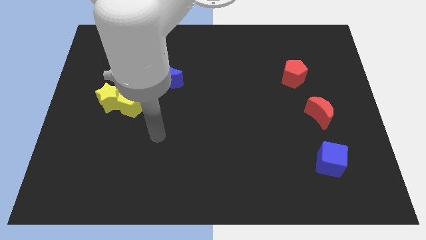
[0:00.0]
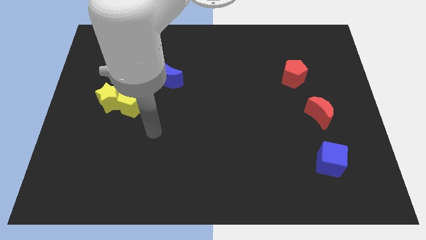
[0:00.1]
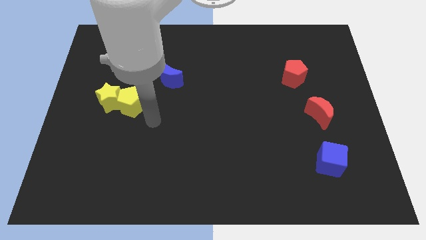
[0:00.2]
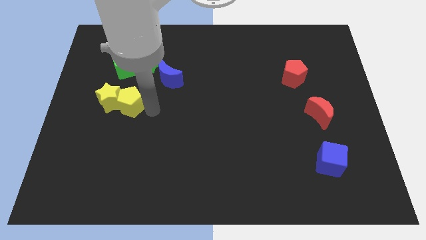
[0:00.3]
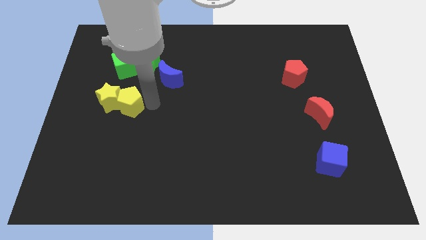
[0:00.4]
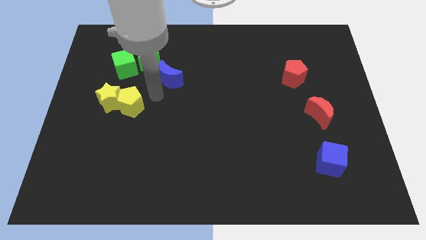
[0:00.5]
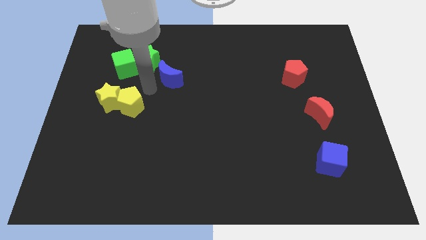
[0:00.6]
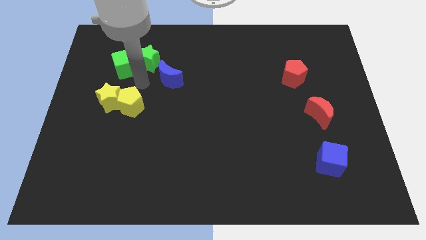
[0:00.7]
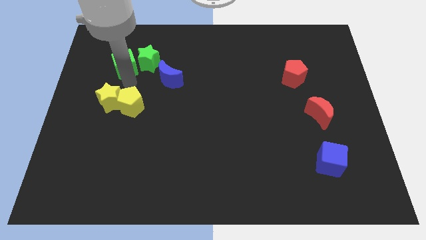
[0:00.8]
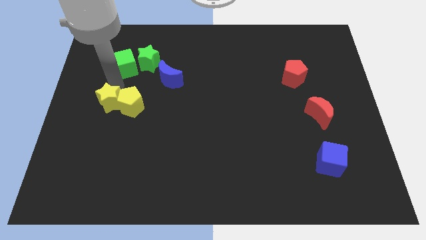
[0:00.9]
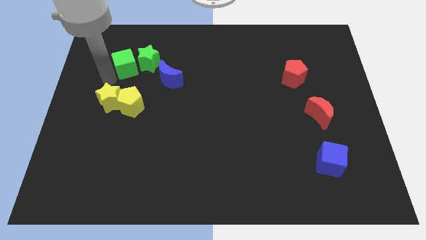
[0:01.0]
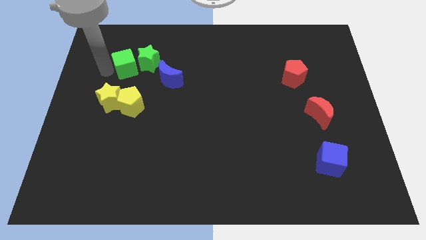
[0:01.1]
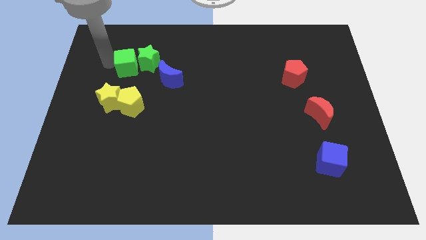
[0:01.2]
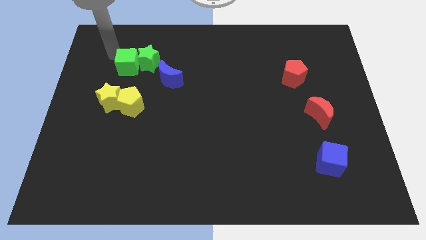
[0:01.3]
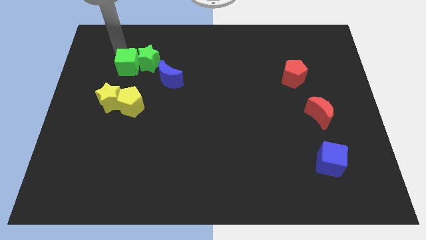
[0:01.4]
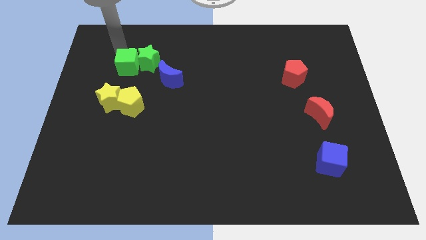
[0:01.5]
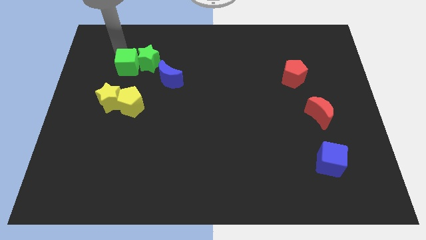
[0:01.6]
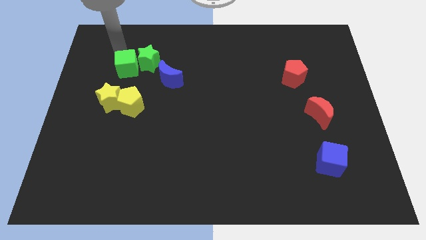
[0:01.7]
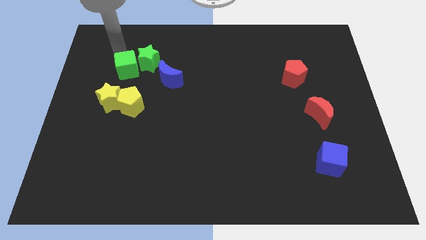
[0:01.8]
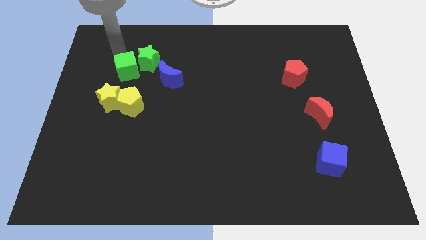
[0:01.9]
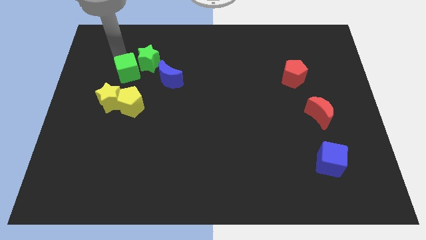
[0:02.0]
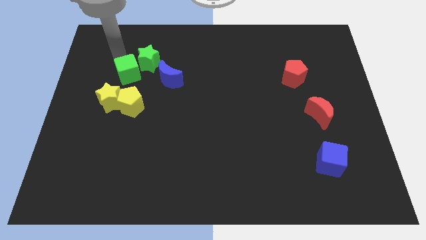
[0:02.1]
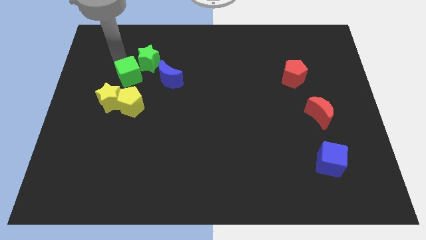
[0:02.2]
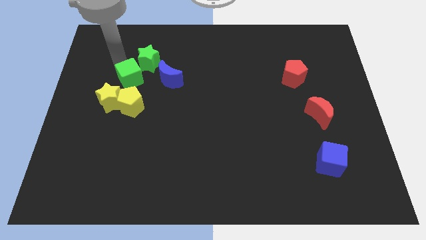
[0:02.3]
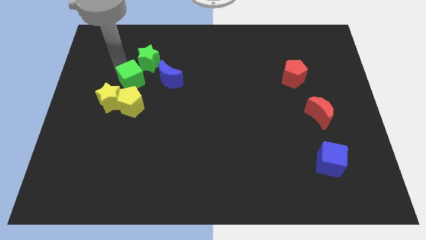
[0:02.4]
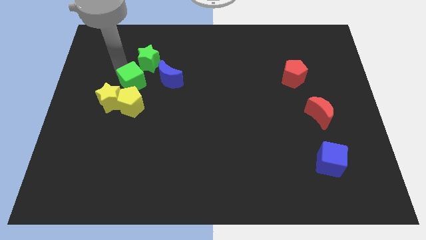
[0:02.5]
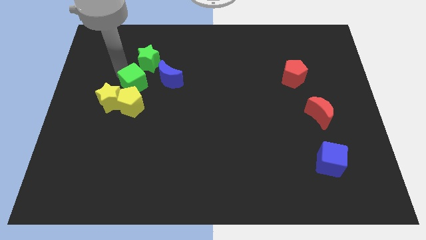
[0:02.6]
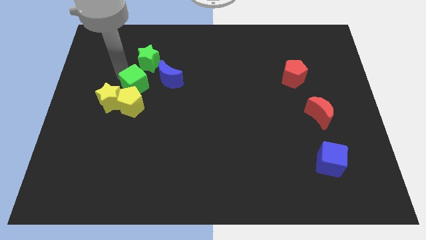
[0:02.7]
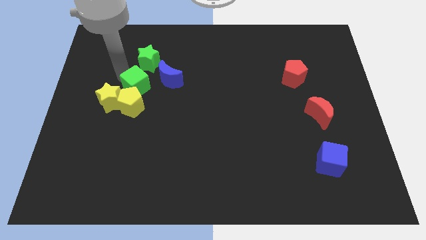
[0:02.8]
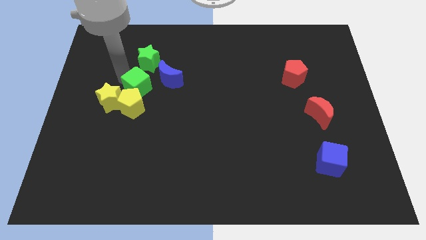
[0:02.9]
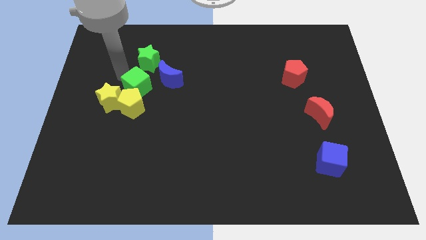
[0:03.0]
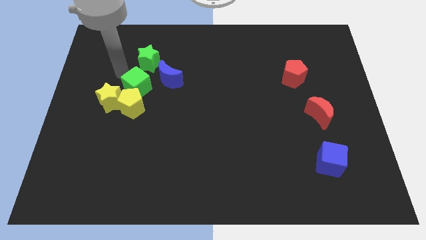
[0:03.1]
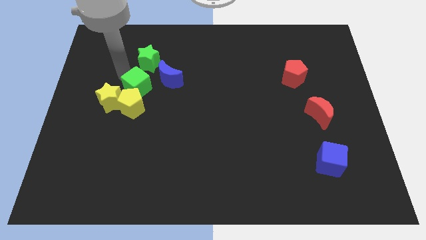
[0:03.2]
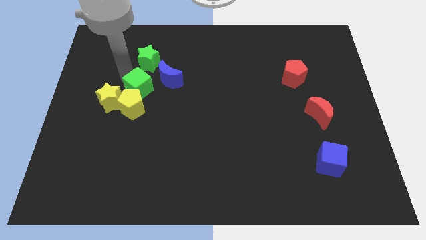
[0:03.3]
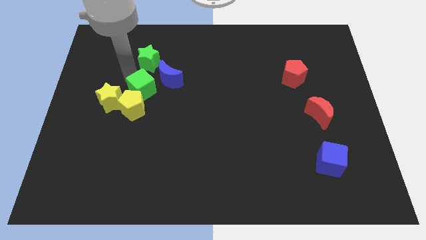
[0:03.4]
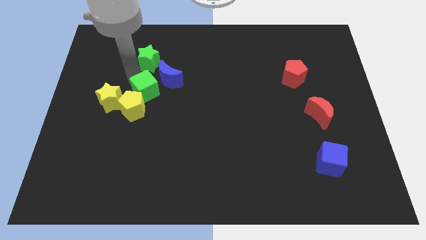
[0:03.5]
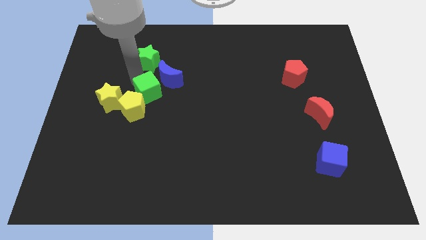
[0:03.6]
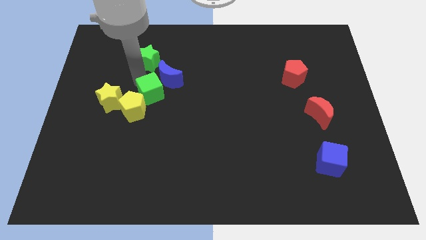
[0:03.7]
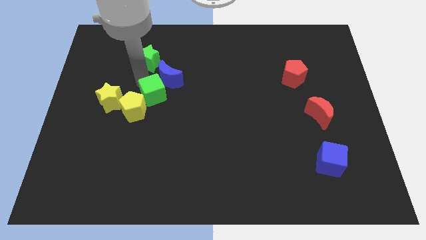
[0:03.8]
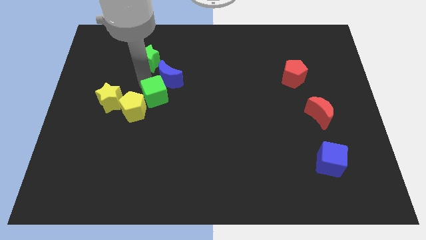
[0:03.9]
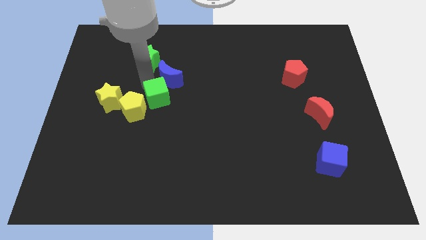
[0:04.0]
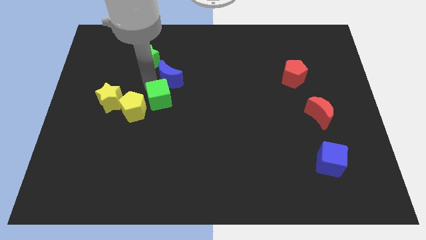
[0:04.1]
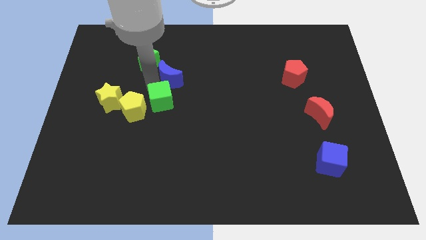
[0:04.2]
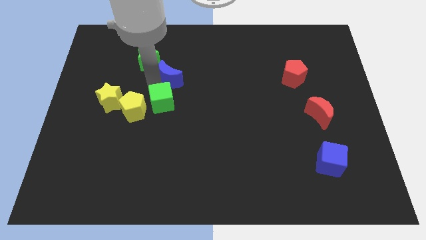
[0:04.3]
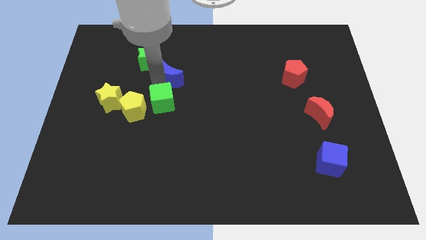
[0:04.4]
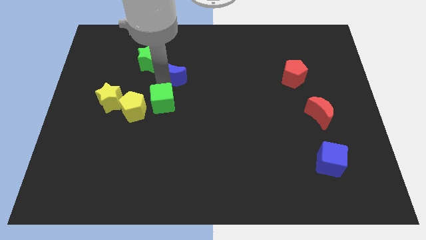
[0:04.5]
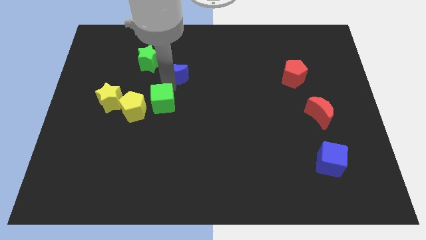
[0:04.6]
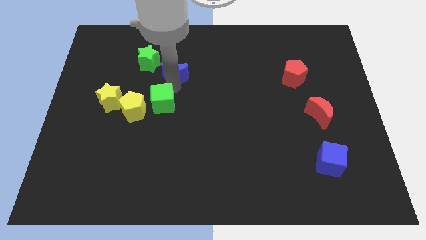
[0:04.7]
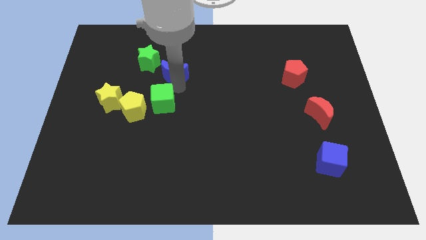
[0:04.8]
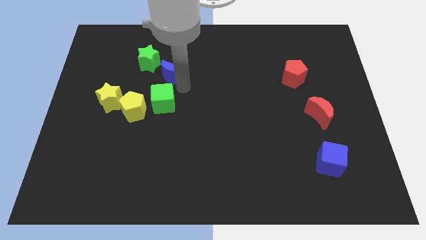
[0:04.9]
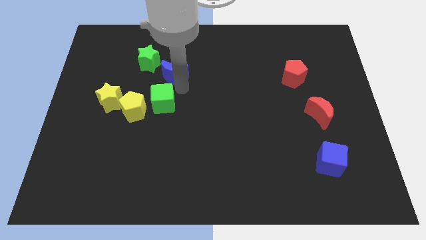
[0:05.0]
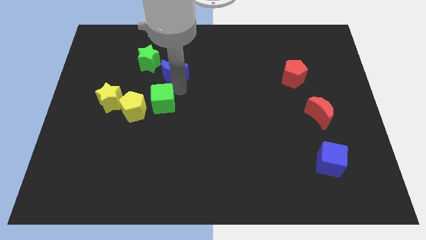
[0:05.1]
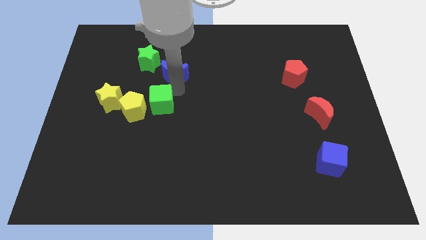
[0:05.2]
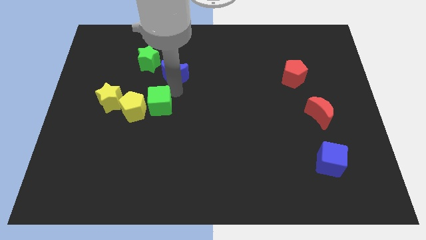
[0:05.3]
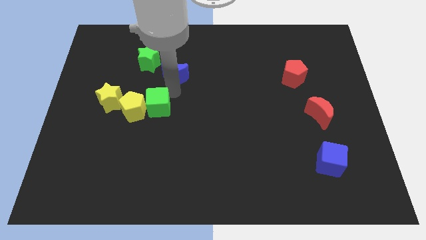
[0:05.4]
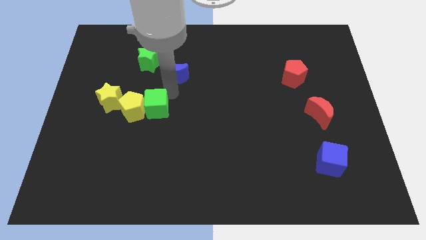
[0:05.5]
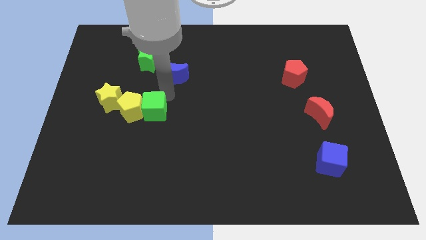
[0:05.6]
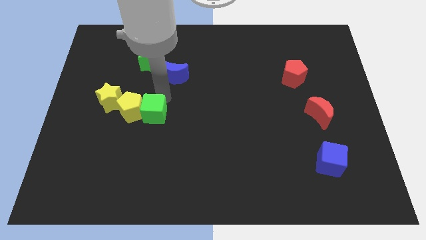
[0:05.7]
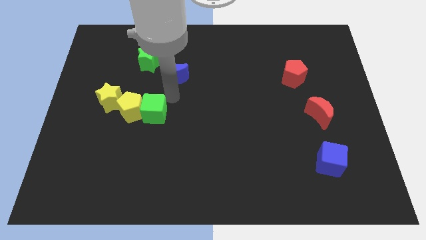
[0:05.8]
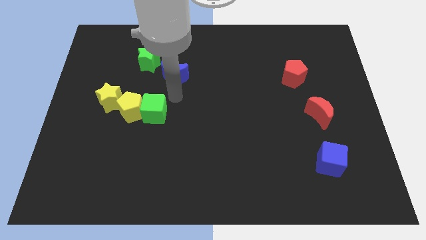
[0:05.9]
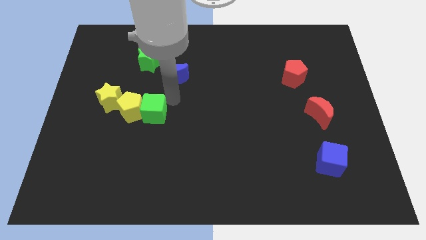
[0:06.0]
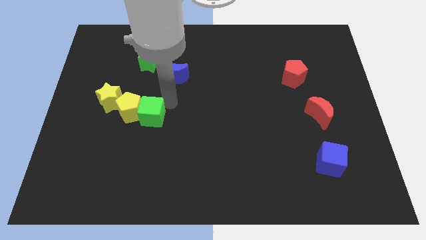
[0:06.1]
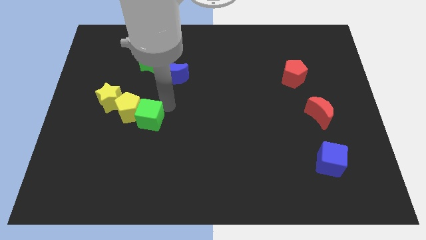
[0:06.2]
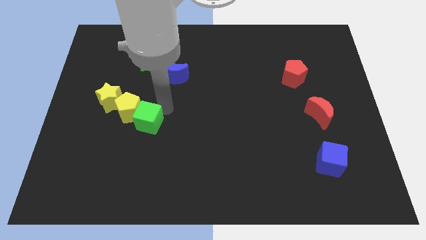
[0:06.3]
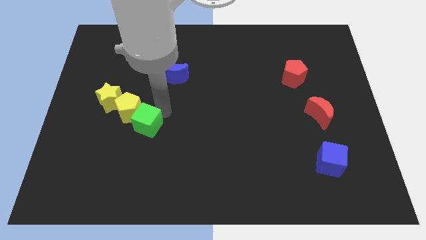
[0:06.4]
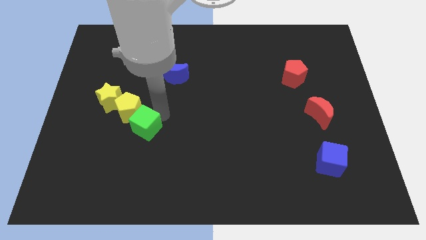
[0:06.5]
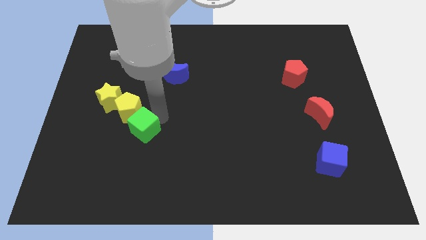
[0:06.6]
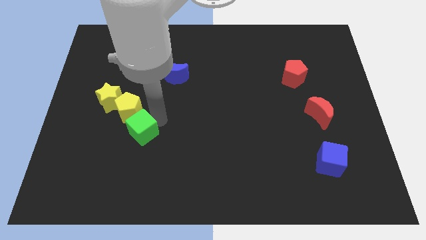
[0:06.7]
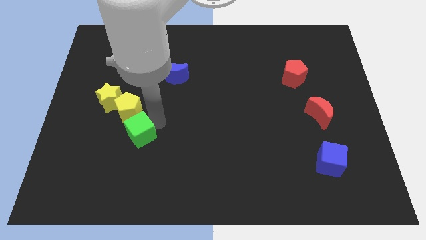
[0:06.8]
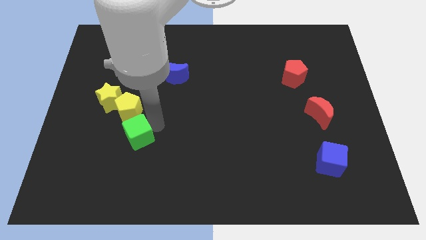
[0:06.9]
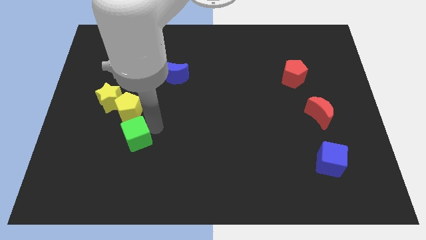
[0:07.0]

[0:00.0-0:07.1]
move the green cube down

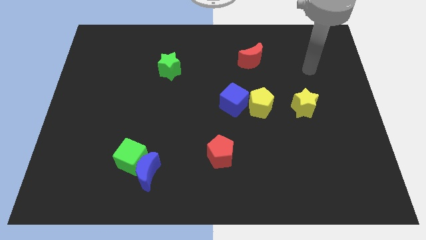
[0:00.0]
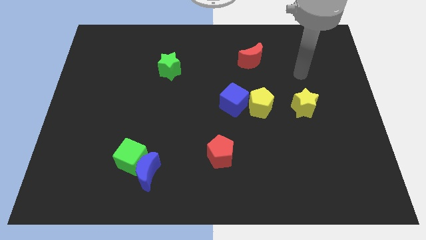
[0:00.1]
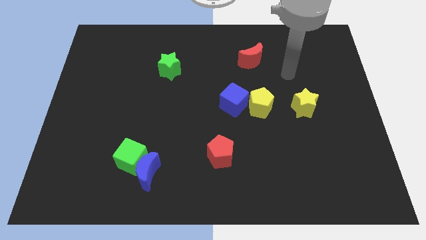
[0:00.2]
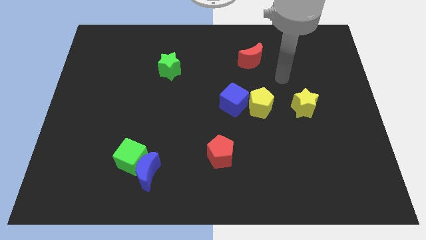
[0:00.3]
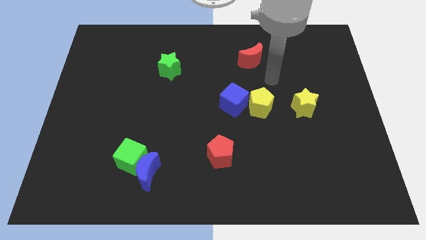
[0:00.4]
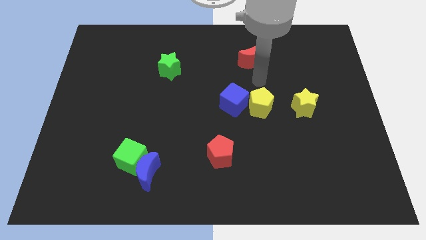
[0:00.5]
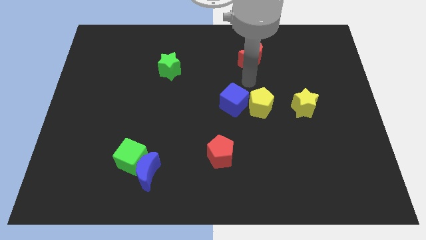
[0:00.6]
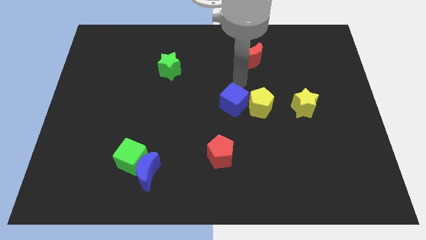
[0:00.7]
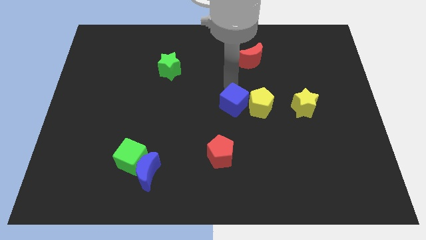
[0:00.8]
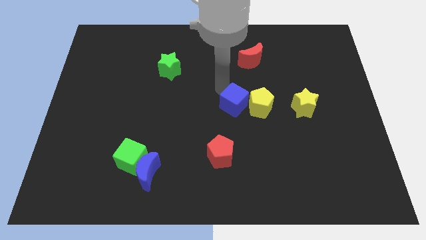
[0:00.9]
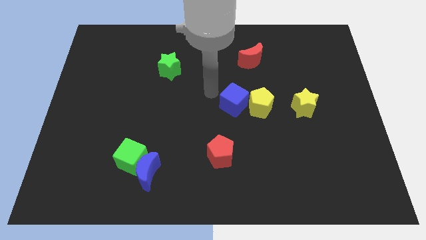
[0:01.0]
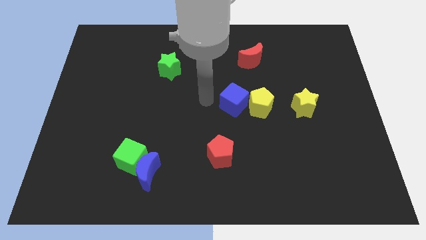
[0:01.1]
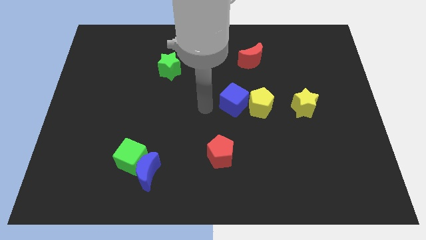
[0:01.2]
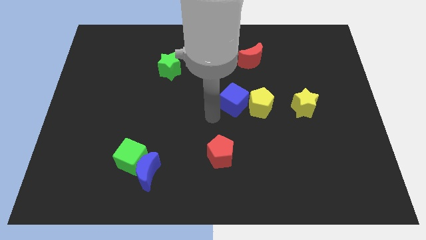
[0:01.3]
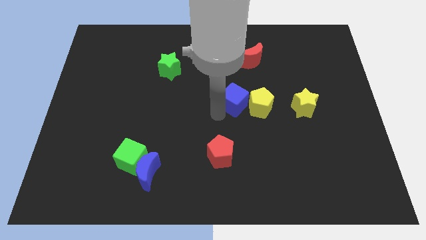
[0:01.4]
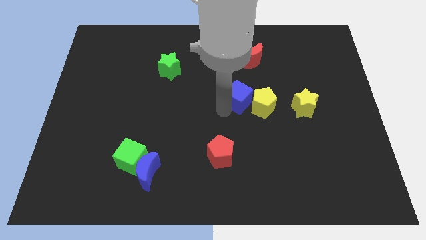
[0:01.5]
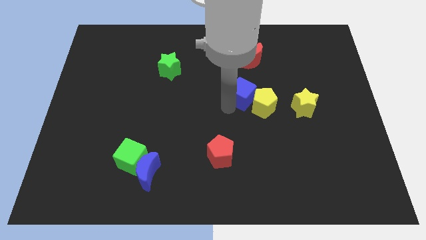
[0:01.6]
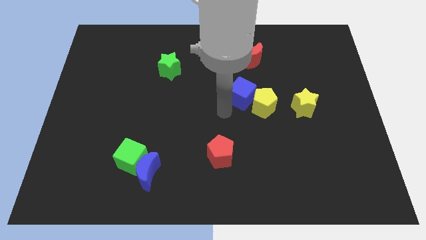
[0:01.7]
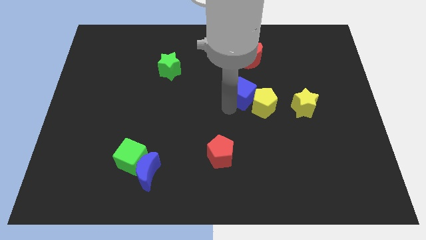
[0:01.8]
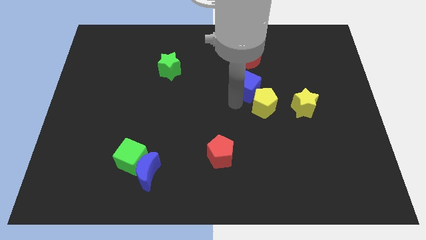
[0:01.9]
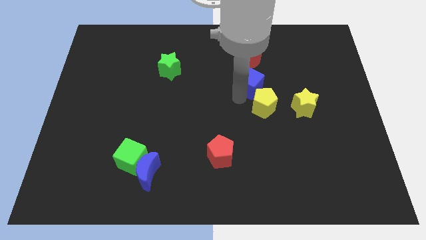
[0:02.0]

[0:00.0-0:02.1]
slightly slide the blue cube upwards and to the right diagonally
